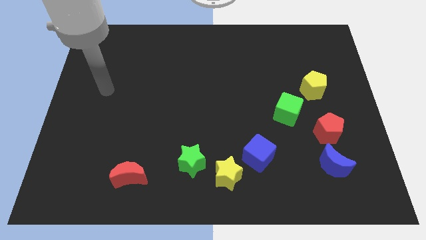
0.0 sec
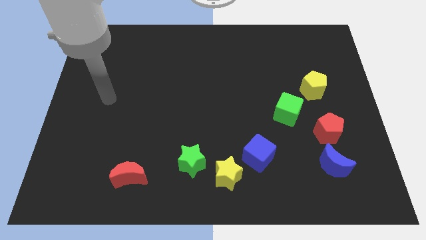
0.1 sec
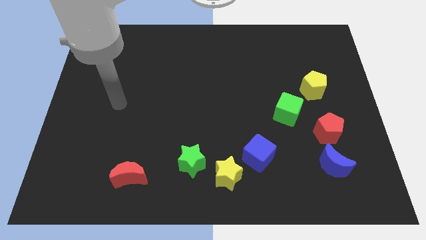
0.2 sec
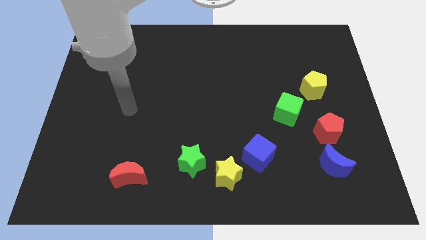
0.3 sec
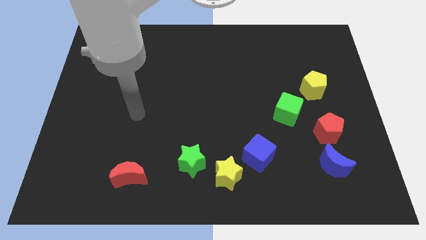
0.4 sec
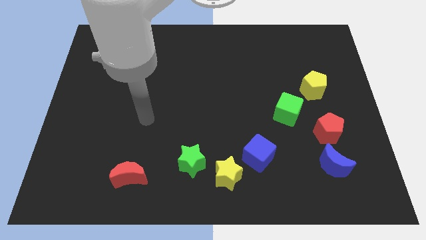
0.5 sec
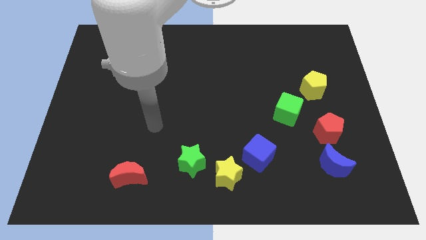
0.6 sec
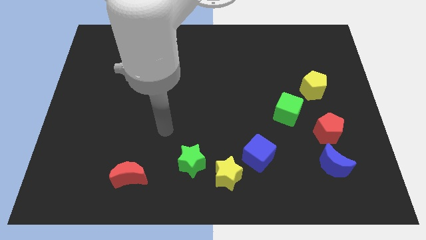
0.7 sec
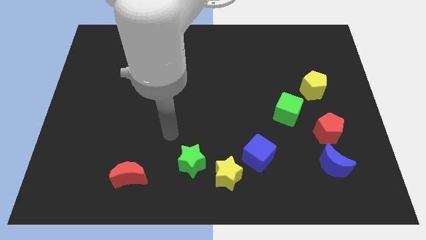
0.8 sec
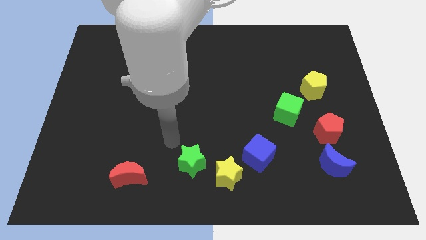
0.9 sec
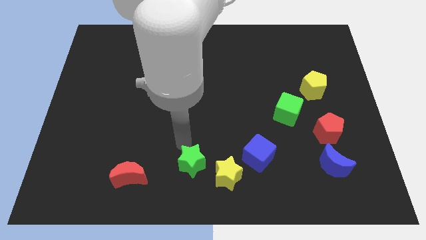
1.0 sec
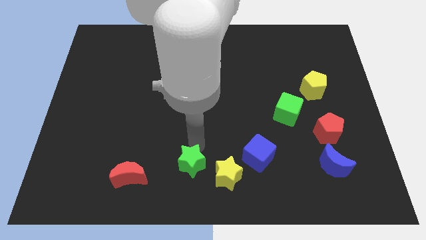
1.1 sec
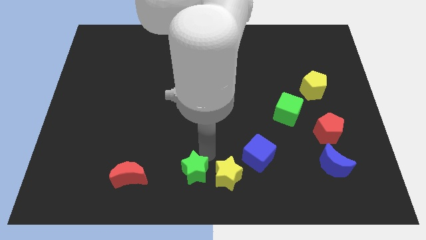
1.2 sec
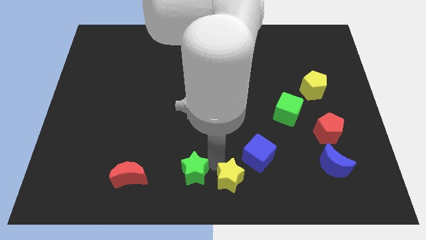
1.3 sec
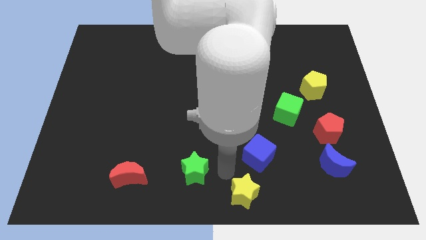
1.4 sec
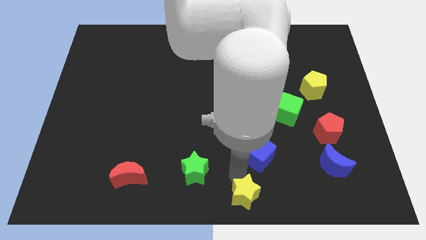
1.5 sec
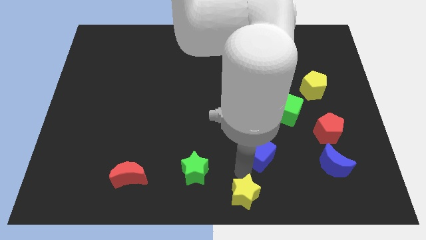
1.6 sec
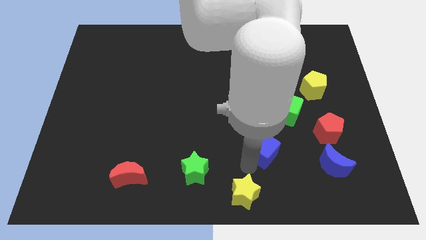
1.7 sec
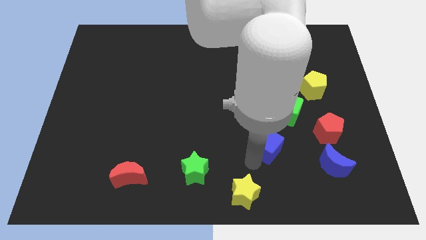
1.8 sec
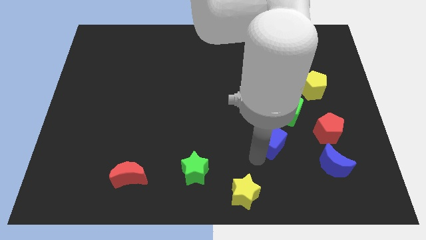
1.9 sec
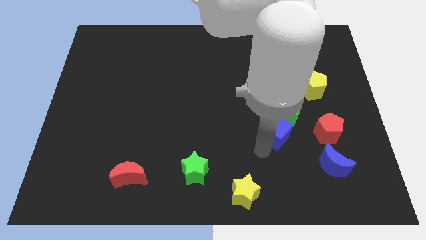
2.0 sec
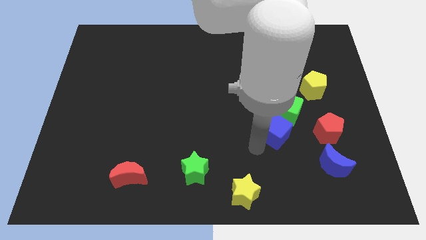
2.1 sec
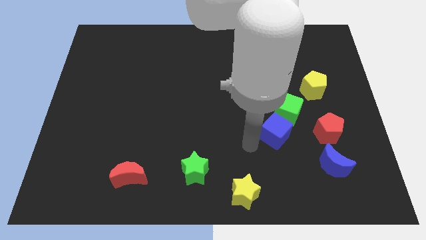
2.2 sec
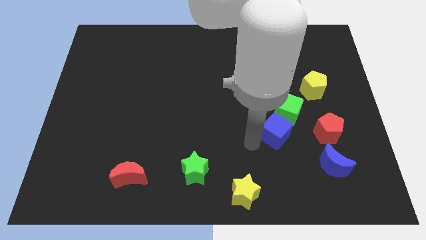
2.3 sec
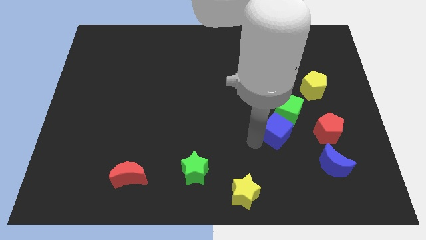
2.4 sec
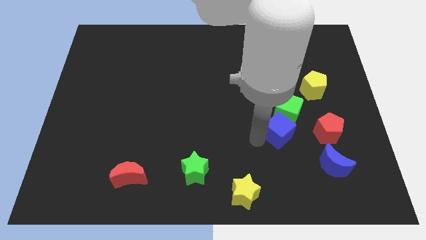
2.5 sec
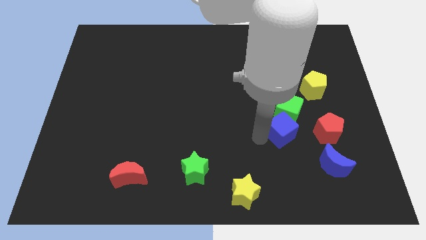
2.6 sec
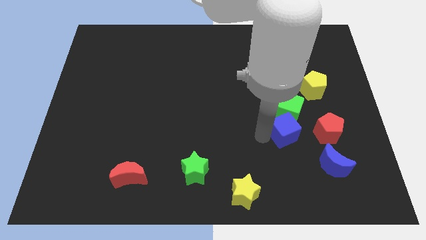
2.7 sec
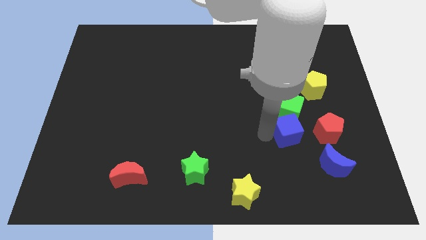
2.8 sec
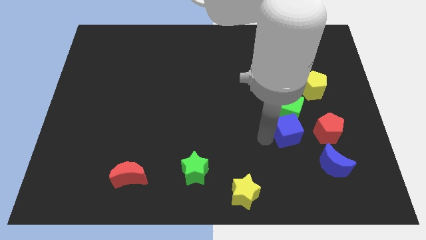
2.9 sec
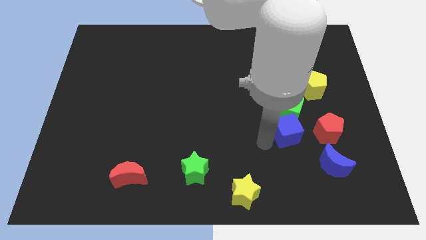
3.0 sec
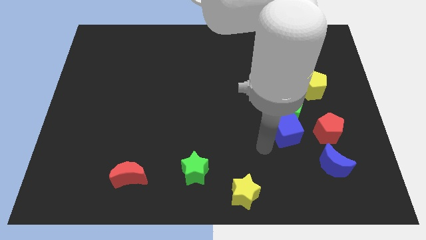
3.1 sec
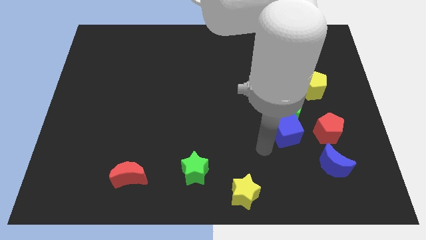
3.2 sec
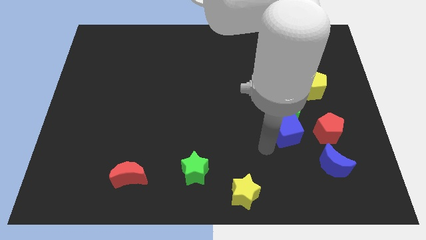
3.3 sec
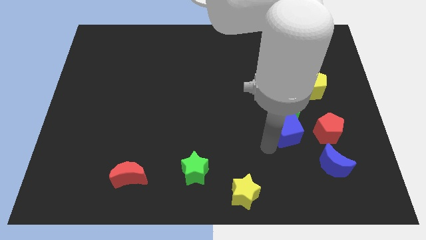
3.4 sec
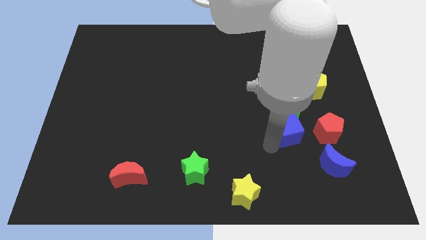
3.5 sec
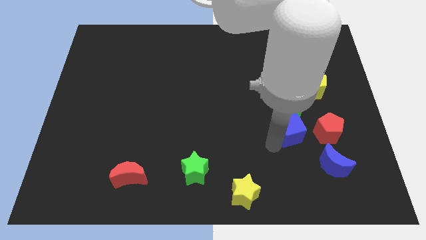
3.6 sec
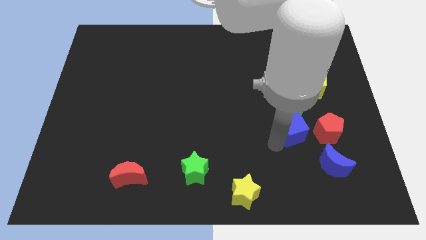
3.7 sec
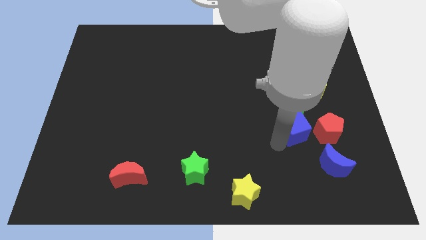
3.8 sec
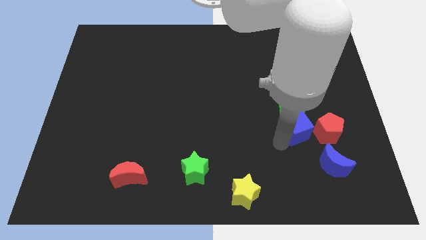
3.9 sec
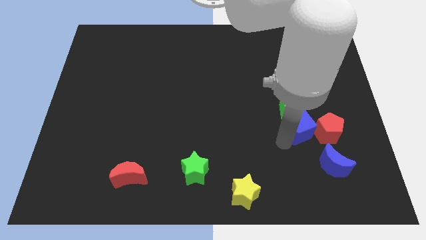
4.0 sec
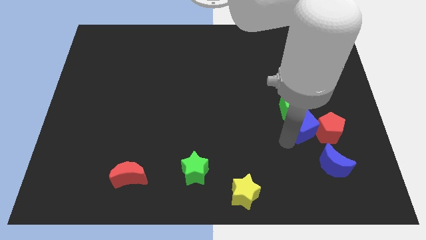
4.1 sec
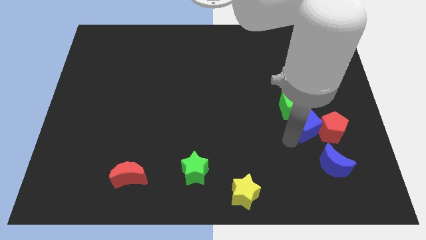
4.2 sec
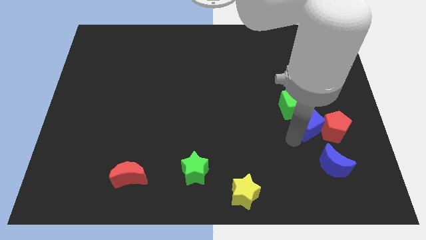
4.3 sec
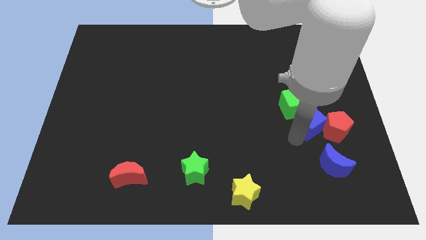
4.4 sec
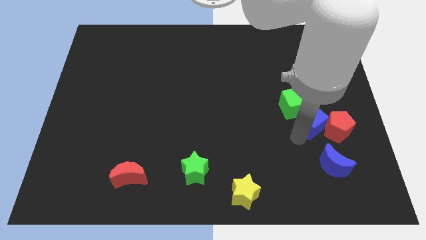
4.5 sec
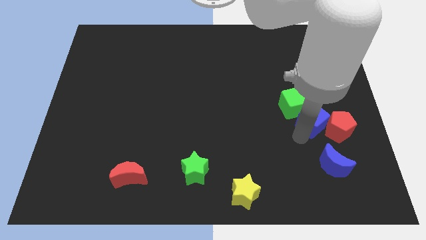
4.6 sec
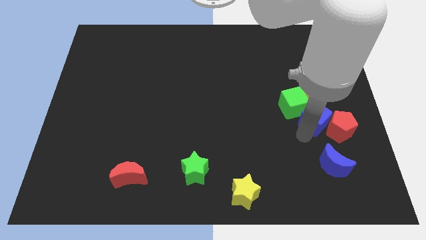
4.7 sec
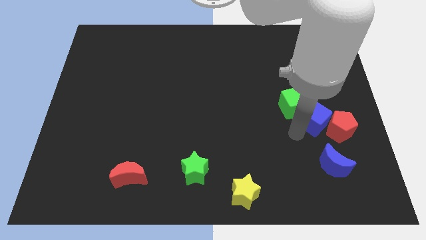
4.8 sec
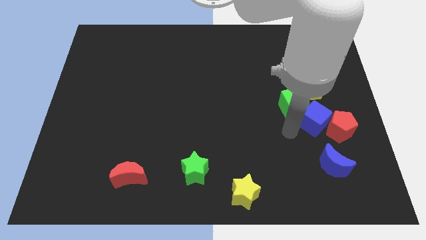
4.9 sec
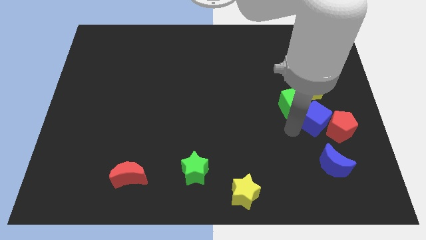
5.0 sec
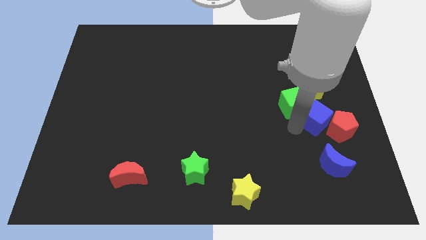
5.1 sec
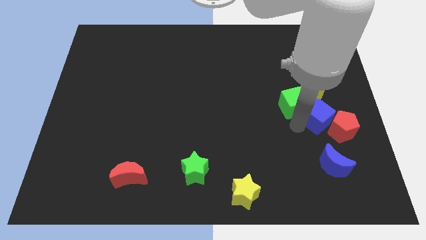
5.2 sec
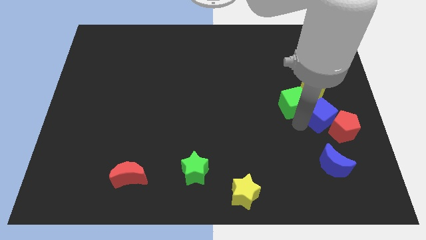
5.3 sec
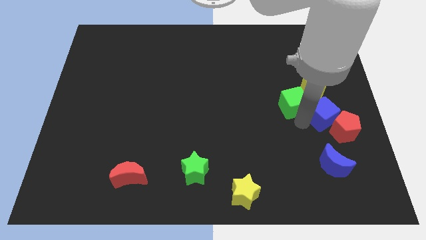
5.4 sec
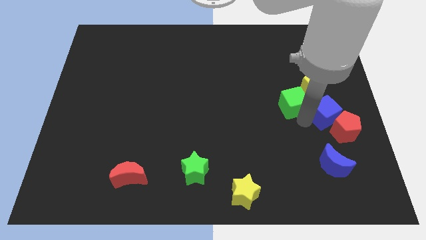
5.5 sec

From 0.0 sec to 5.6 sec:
slide the blue cube to the center right
